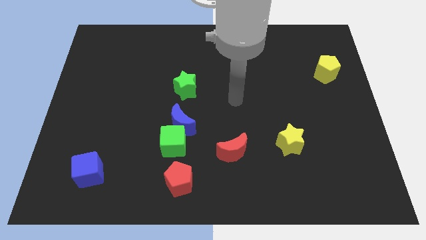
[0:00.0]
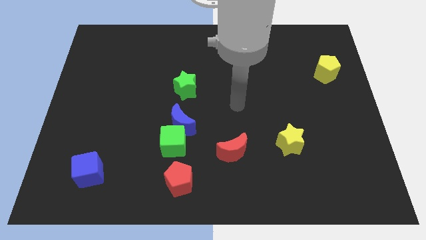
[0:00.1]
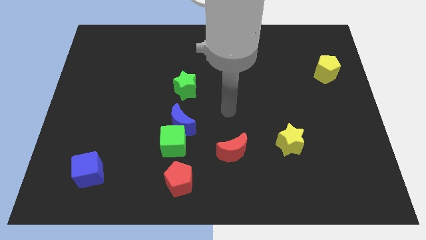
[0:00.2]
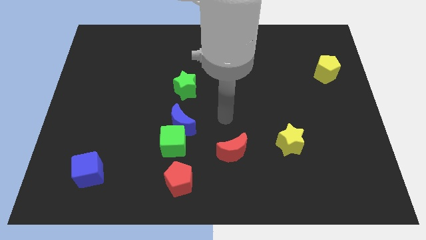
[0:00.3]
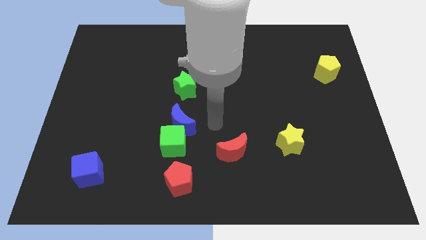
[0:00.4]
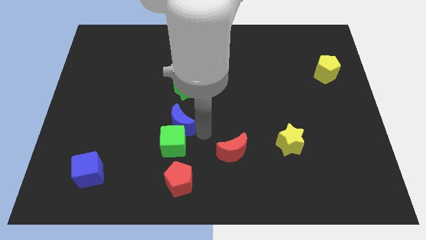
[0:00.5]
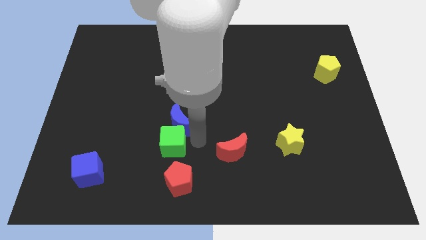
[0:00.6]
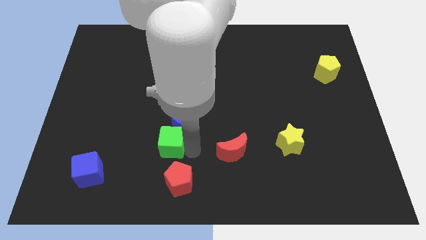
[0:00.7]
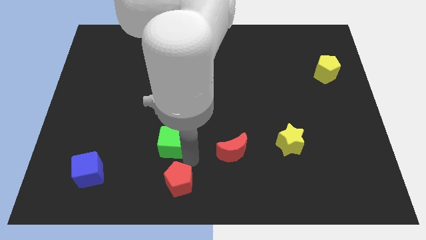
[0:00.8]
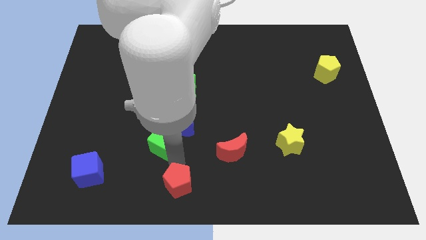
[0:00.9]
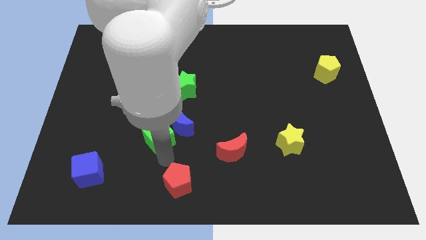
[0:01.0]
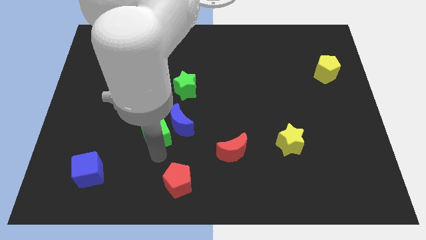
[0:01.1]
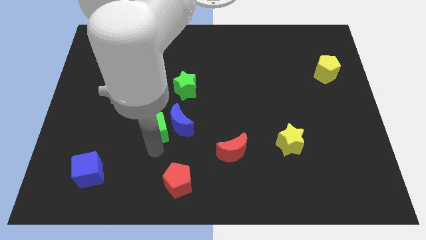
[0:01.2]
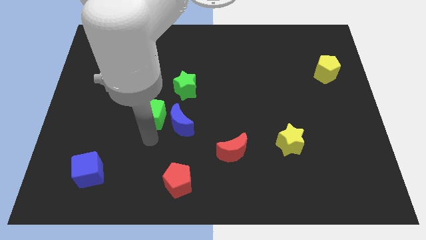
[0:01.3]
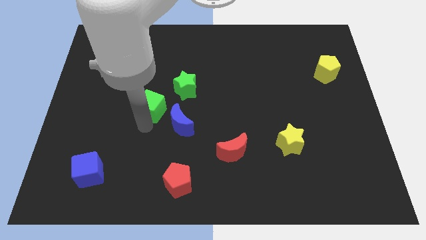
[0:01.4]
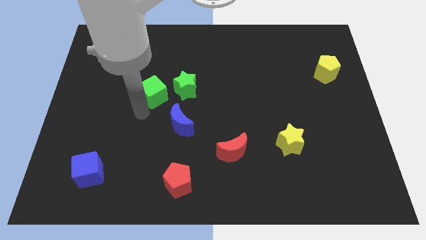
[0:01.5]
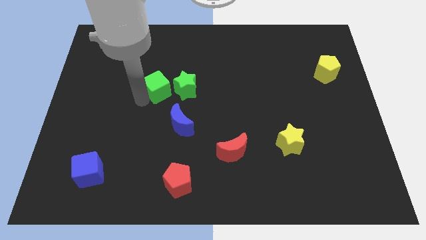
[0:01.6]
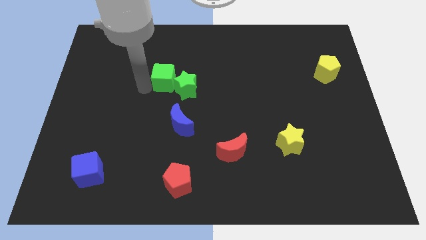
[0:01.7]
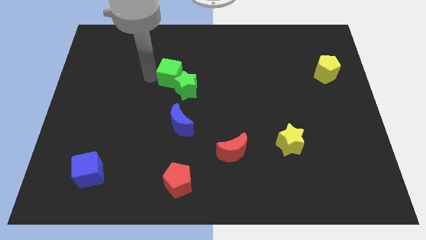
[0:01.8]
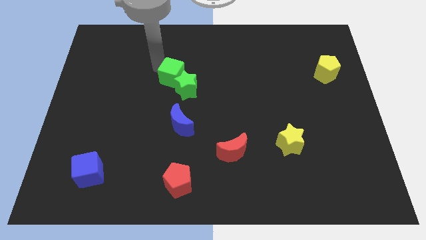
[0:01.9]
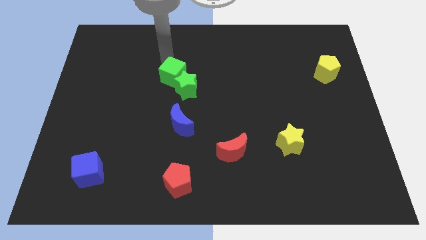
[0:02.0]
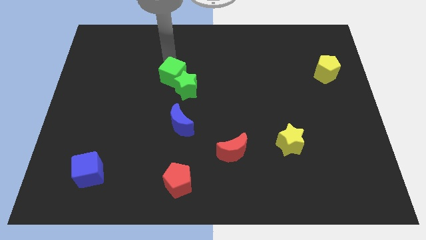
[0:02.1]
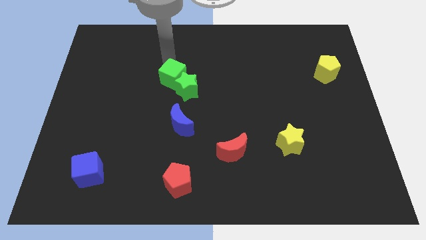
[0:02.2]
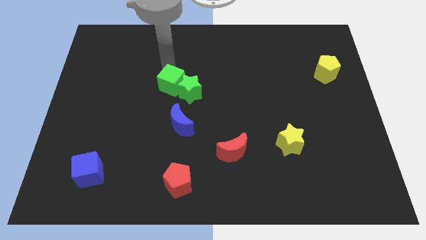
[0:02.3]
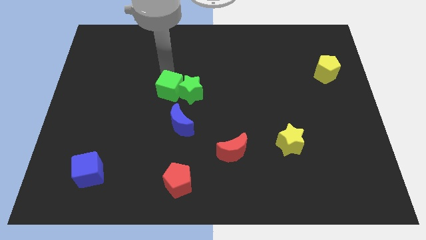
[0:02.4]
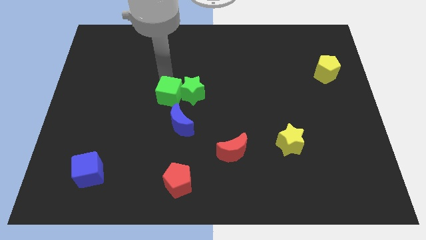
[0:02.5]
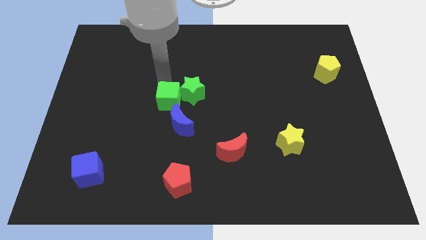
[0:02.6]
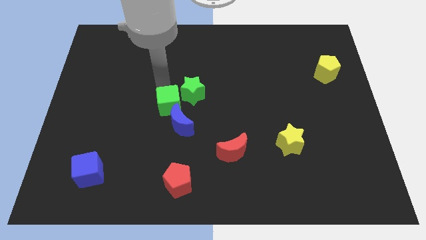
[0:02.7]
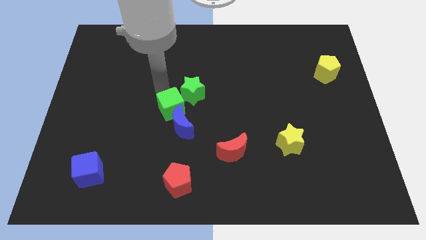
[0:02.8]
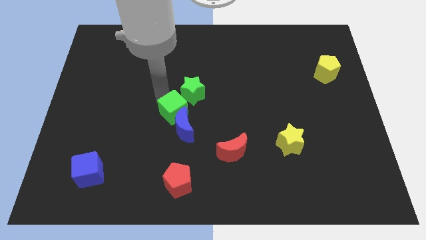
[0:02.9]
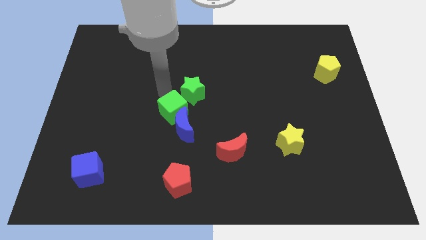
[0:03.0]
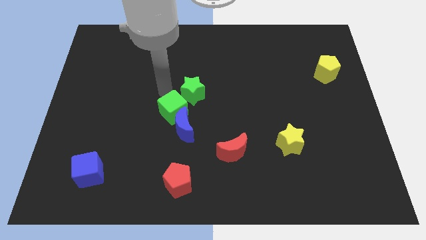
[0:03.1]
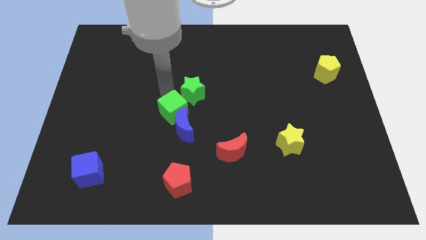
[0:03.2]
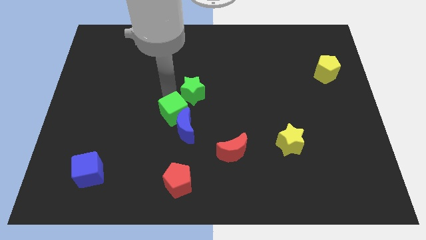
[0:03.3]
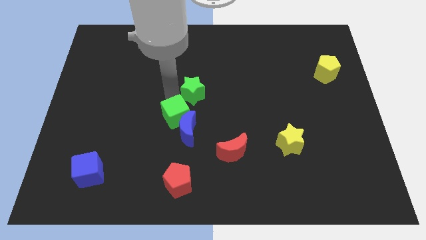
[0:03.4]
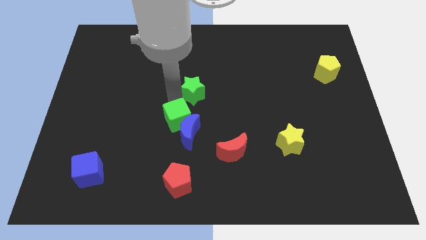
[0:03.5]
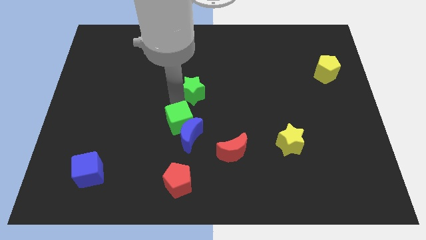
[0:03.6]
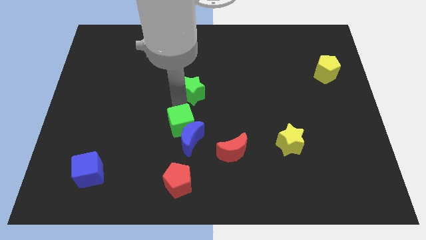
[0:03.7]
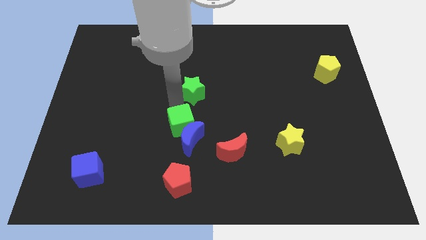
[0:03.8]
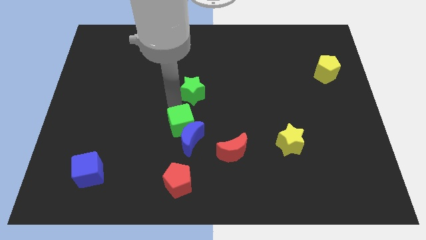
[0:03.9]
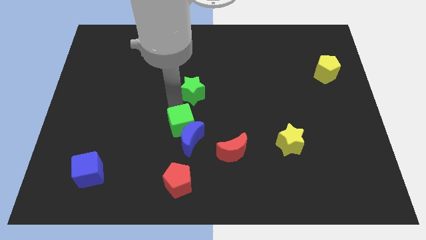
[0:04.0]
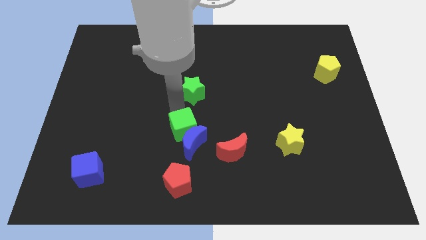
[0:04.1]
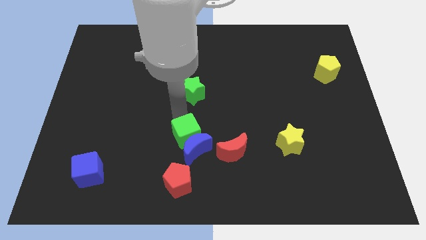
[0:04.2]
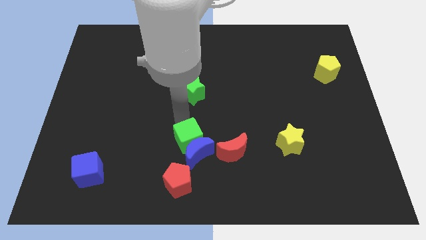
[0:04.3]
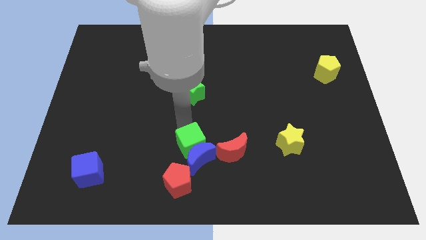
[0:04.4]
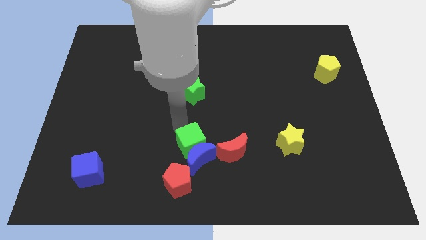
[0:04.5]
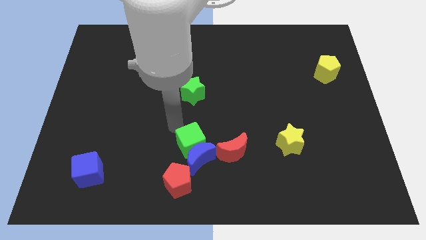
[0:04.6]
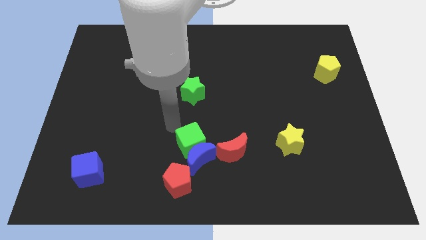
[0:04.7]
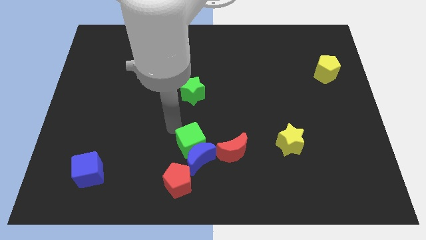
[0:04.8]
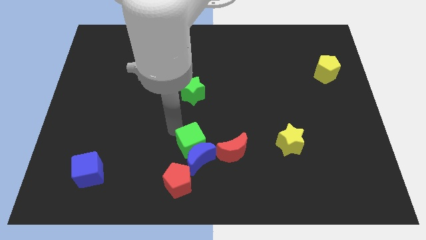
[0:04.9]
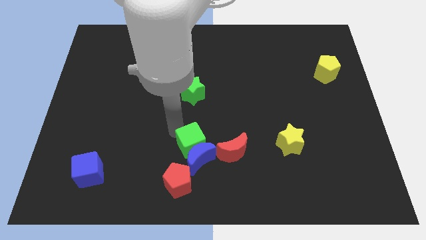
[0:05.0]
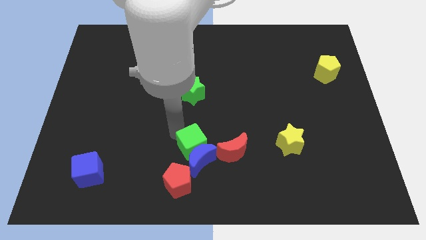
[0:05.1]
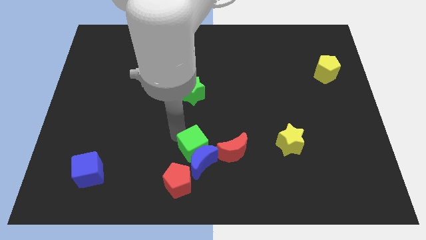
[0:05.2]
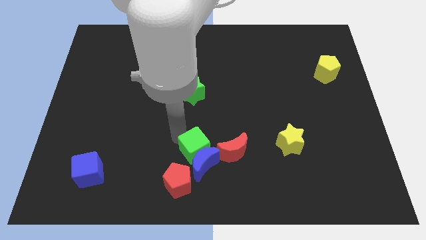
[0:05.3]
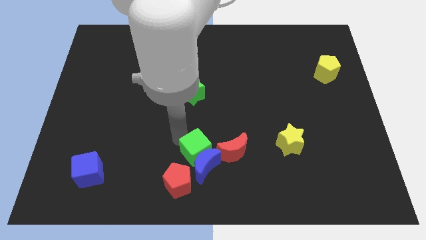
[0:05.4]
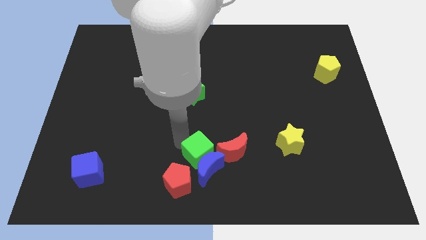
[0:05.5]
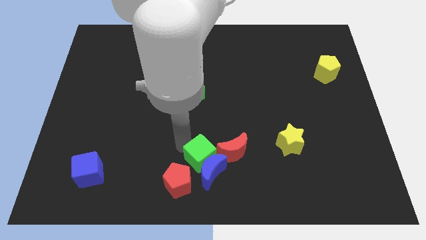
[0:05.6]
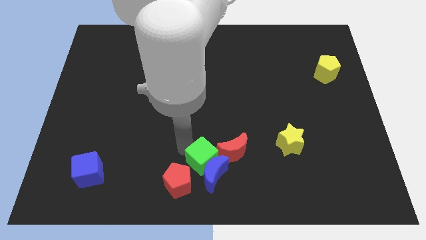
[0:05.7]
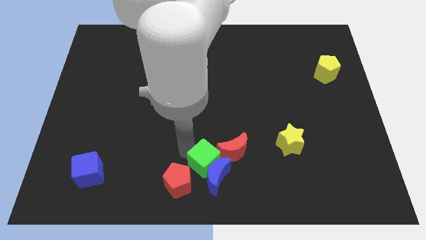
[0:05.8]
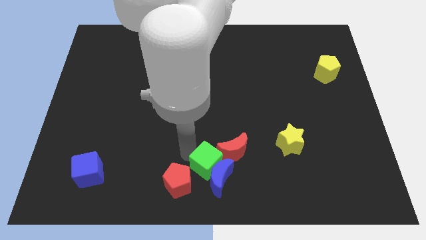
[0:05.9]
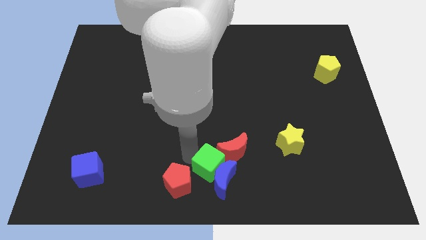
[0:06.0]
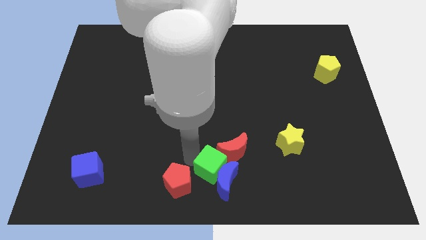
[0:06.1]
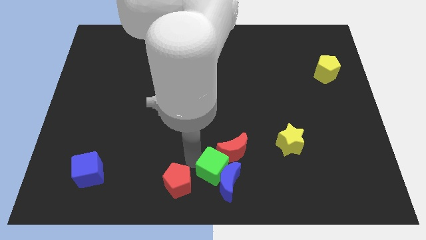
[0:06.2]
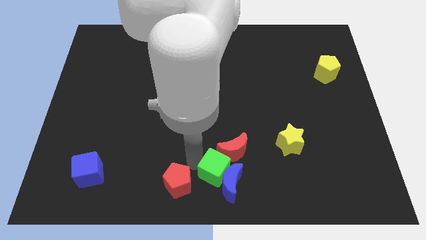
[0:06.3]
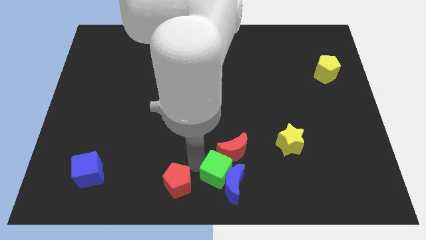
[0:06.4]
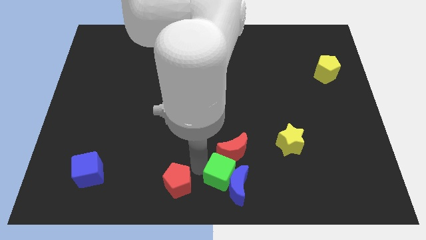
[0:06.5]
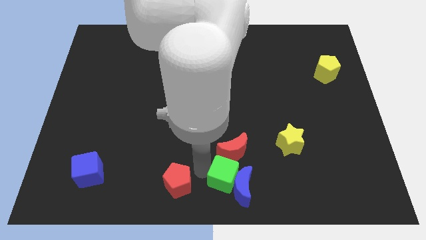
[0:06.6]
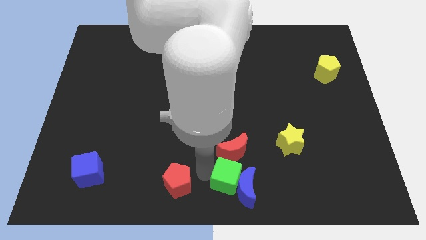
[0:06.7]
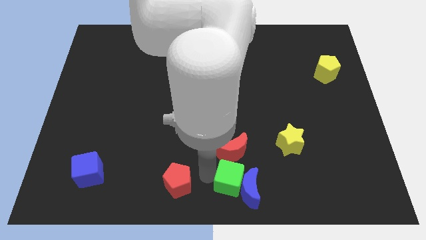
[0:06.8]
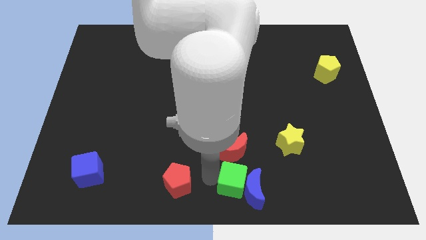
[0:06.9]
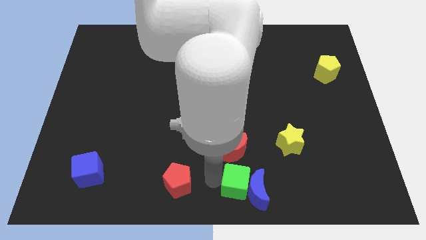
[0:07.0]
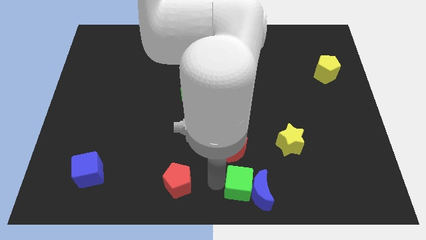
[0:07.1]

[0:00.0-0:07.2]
put the green cube diagonally down and to the right of the red moon

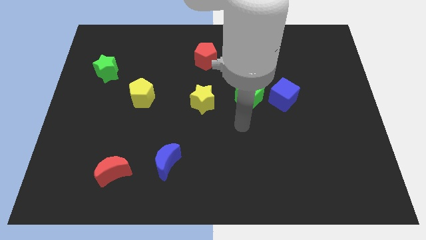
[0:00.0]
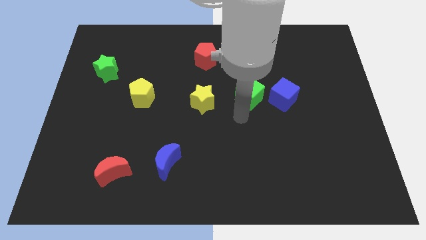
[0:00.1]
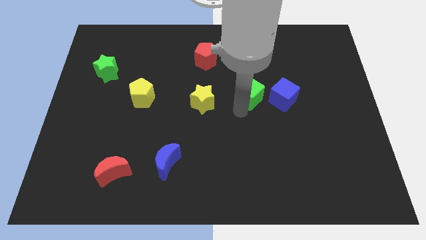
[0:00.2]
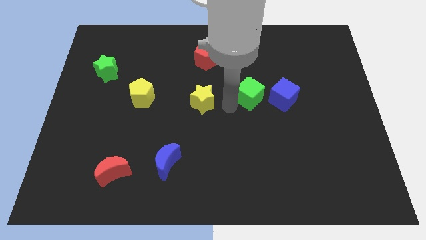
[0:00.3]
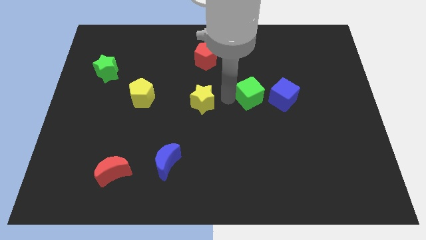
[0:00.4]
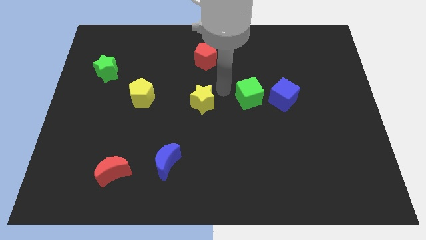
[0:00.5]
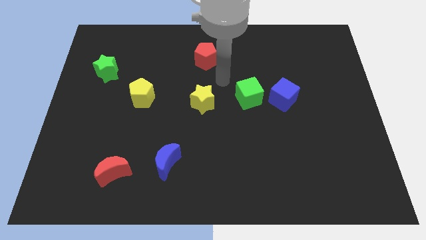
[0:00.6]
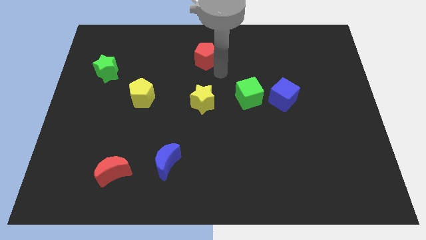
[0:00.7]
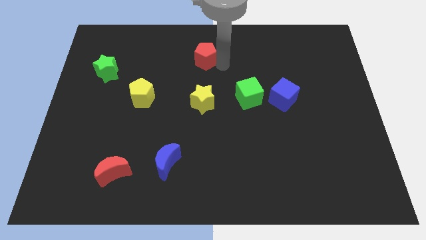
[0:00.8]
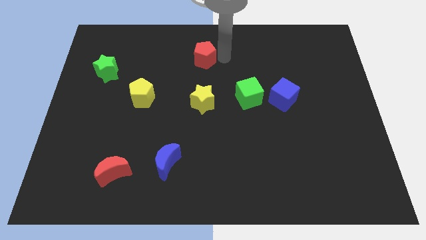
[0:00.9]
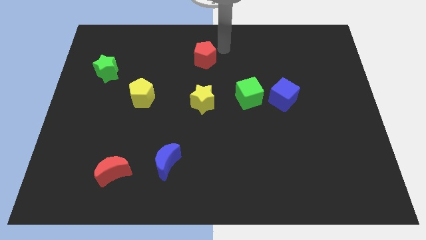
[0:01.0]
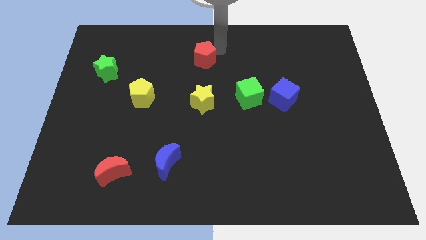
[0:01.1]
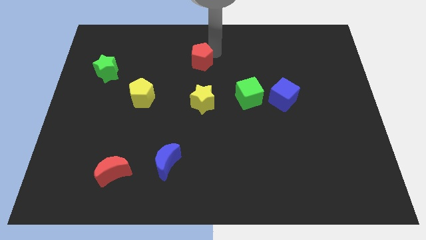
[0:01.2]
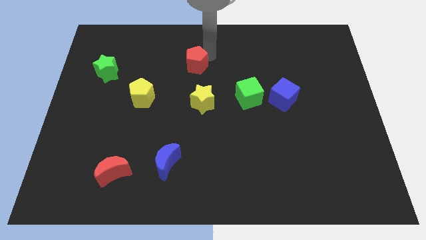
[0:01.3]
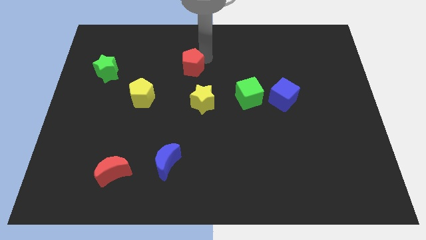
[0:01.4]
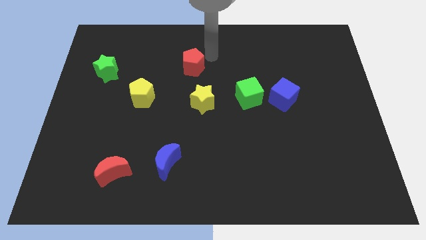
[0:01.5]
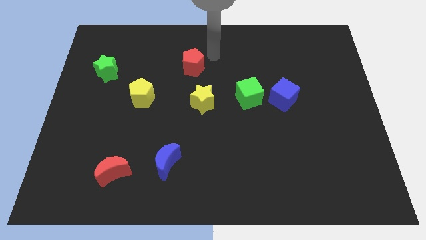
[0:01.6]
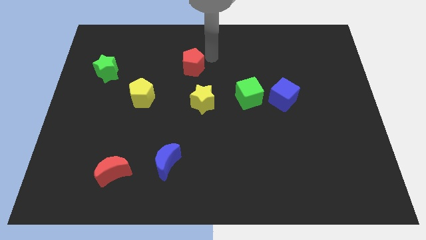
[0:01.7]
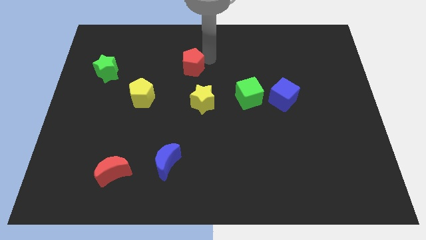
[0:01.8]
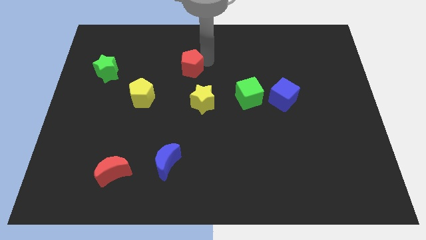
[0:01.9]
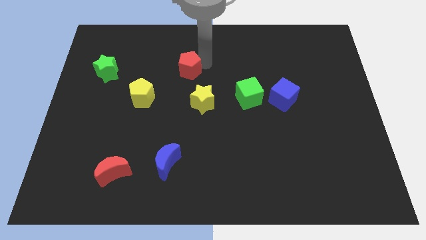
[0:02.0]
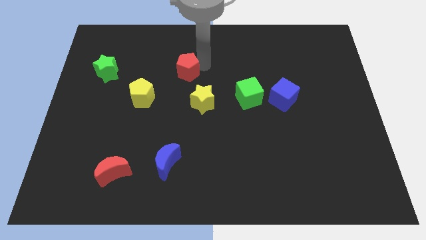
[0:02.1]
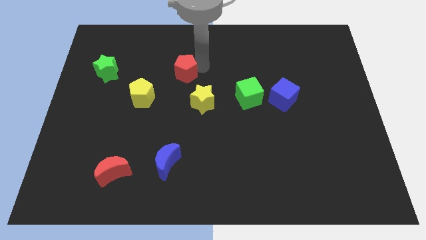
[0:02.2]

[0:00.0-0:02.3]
slide the red pentagon to the top right side of the yellow pentagon
